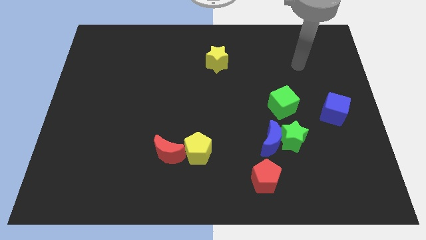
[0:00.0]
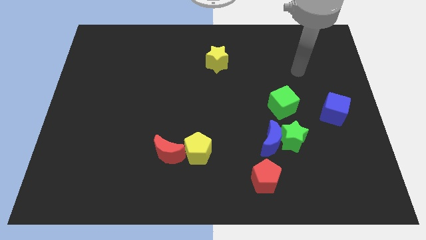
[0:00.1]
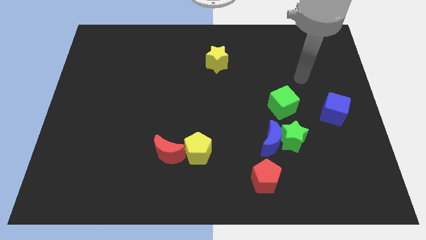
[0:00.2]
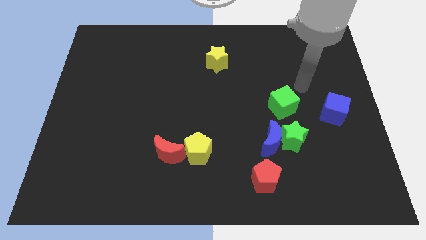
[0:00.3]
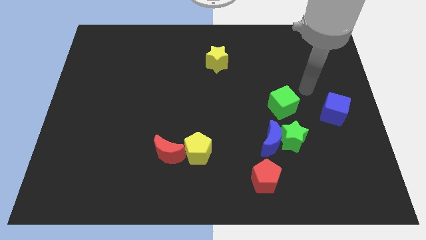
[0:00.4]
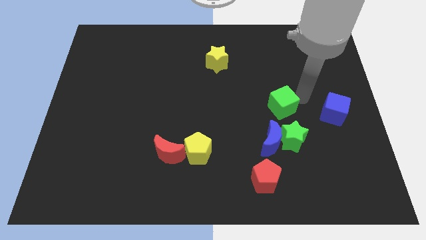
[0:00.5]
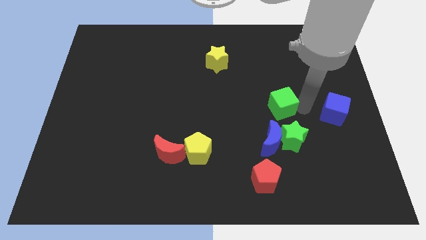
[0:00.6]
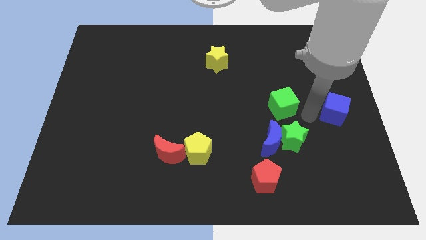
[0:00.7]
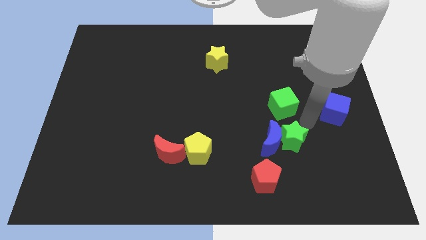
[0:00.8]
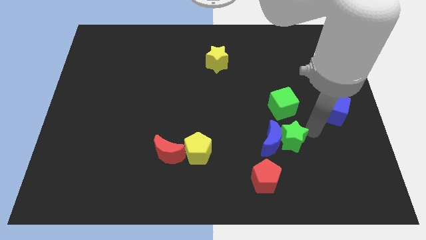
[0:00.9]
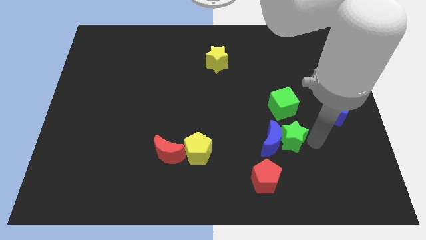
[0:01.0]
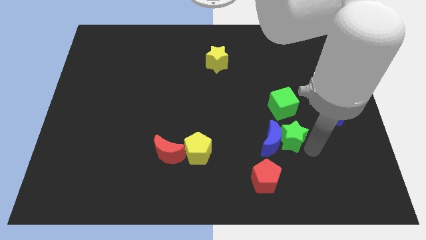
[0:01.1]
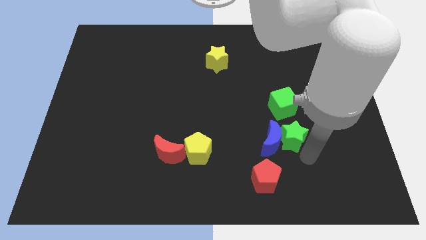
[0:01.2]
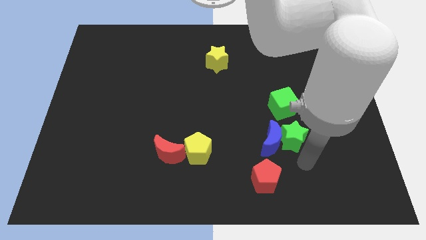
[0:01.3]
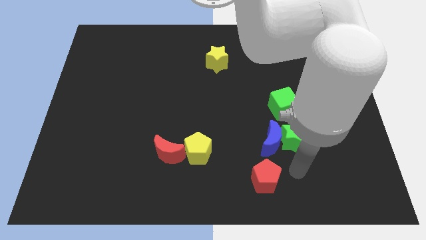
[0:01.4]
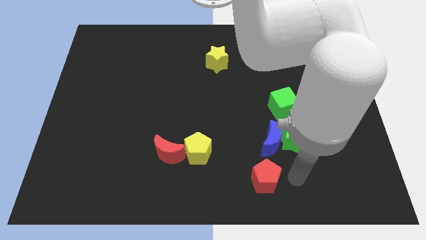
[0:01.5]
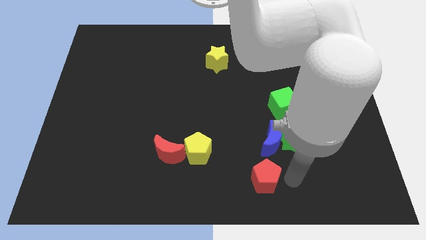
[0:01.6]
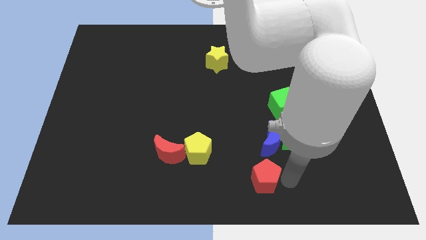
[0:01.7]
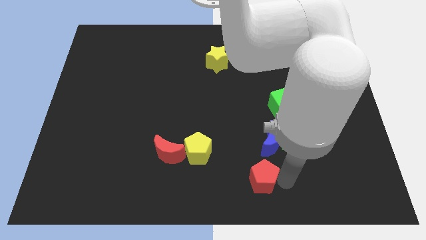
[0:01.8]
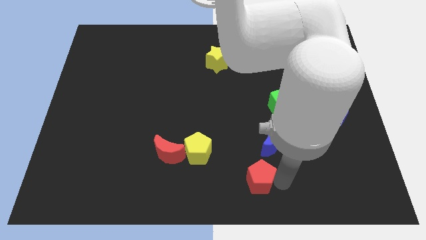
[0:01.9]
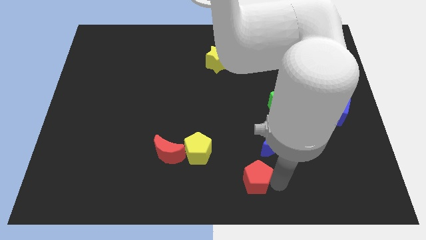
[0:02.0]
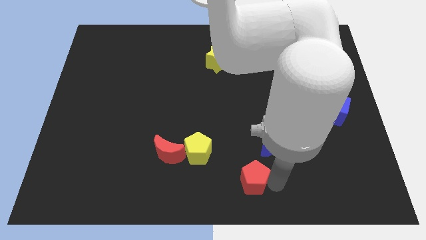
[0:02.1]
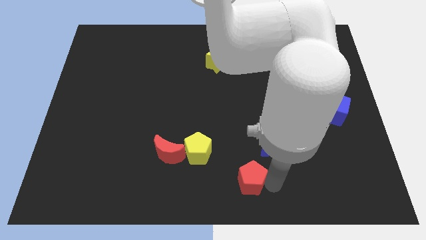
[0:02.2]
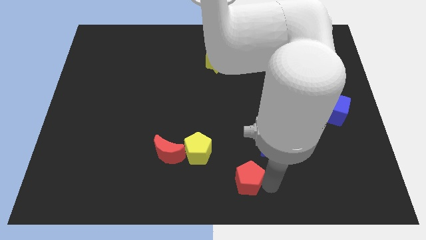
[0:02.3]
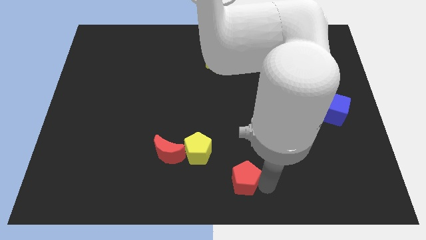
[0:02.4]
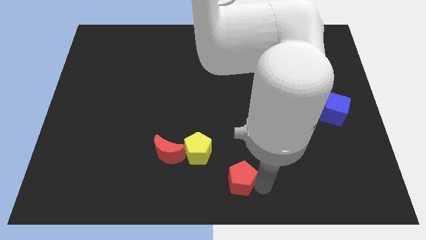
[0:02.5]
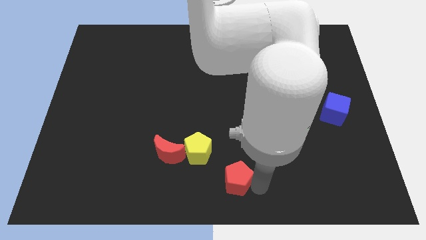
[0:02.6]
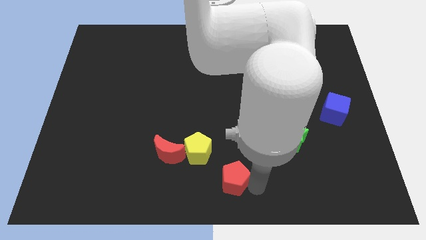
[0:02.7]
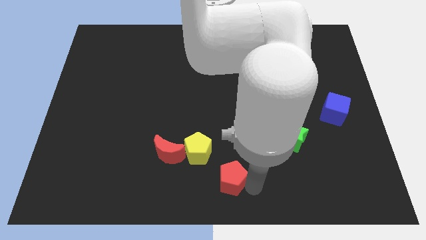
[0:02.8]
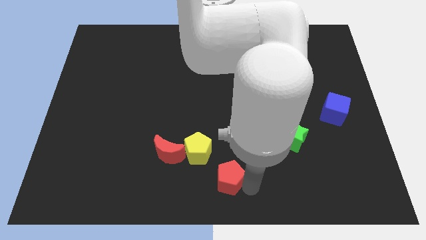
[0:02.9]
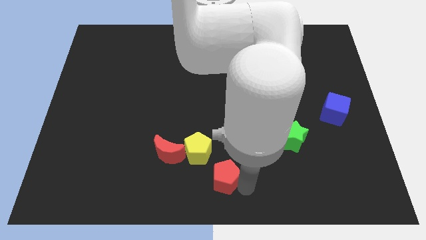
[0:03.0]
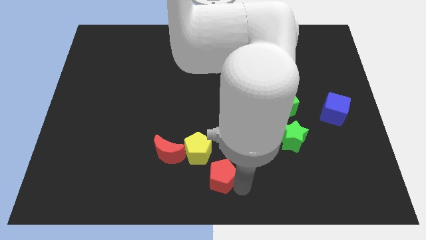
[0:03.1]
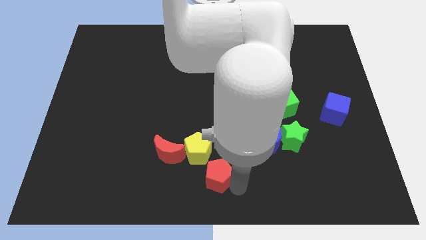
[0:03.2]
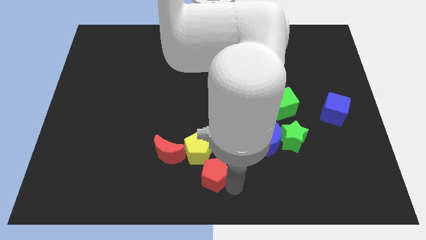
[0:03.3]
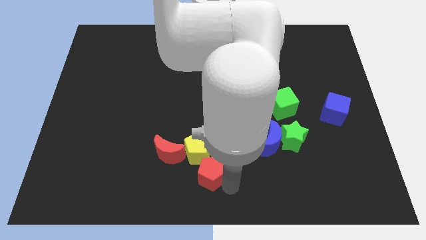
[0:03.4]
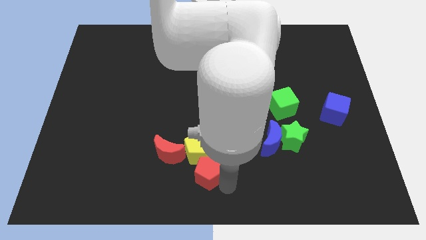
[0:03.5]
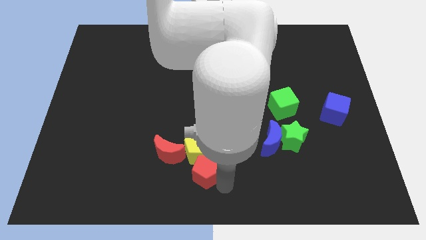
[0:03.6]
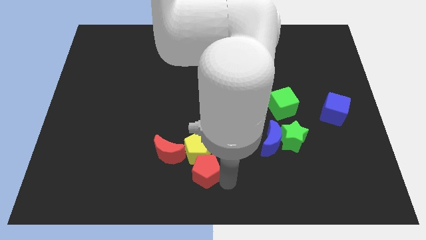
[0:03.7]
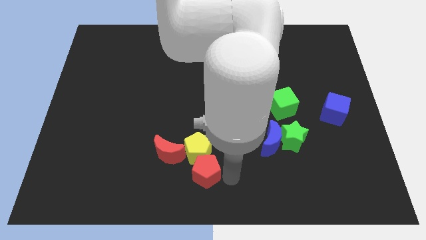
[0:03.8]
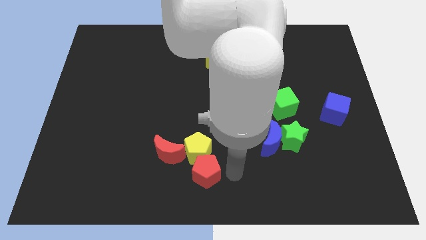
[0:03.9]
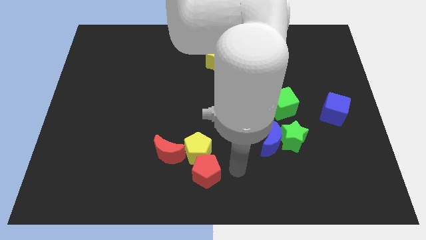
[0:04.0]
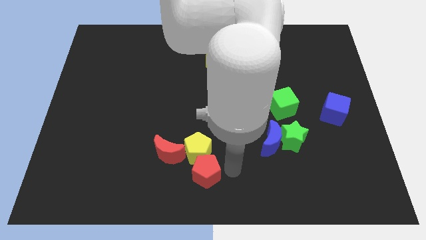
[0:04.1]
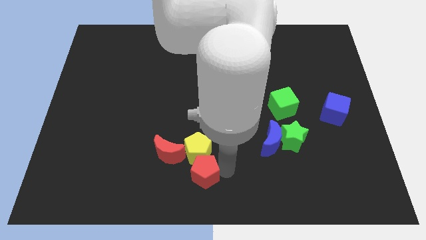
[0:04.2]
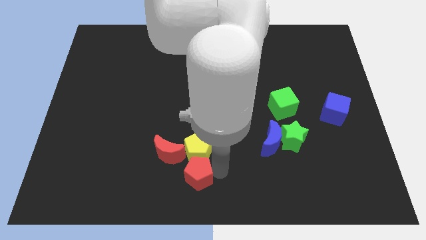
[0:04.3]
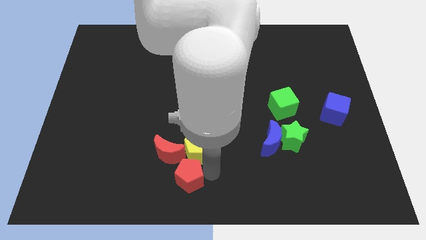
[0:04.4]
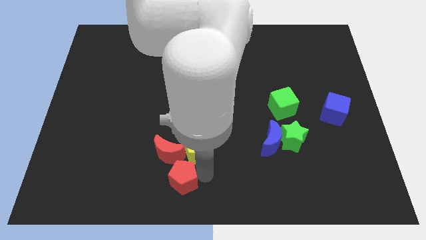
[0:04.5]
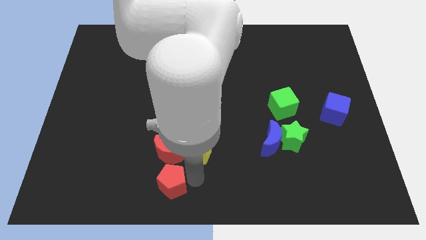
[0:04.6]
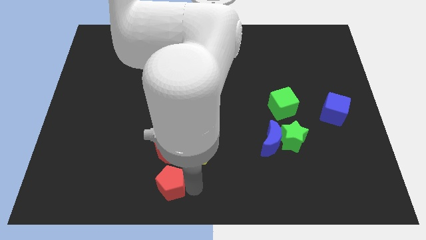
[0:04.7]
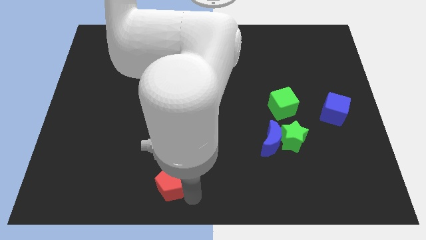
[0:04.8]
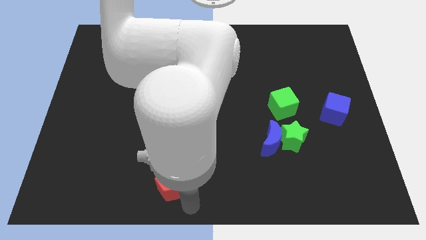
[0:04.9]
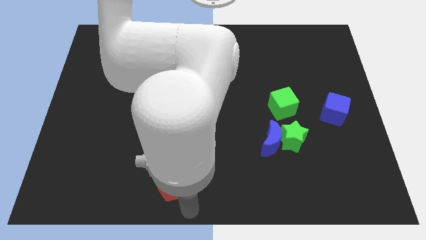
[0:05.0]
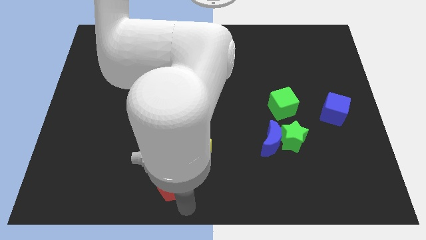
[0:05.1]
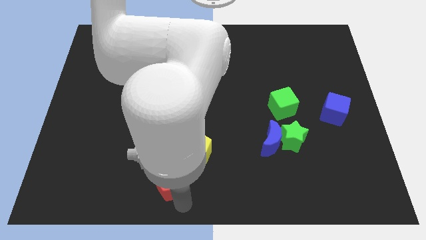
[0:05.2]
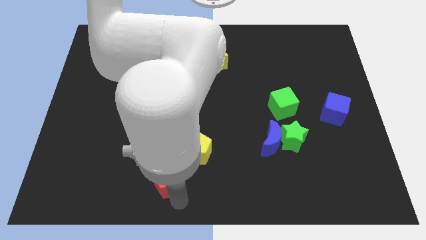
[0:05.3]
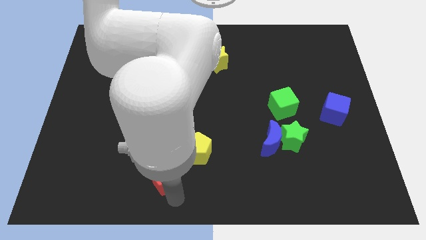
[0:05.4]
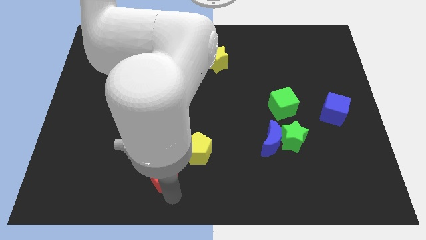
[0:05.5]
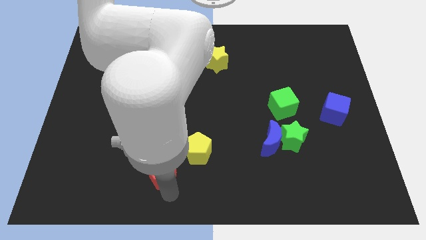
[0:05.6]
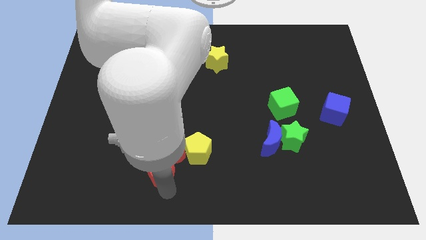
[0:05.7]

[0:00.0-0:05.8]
move the red pentagon to the left side of the yellow pentagon

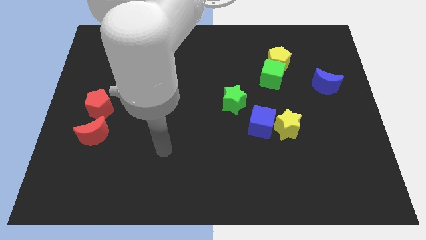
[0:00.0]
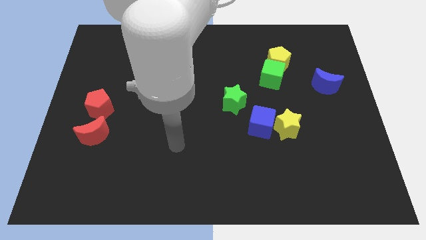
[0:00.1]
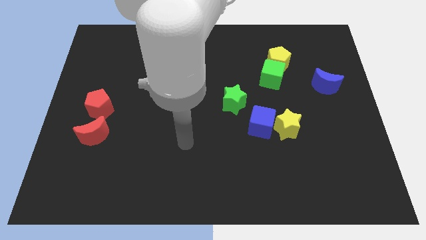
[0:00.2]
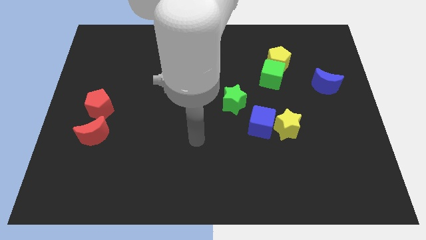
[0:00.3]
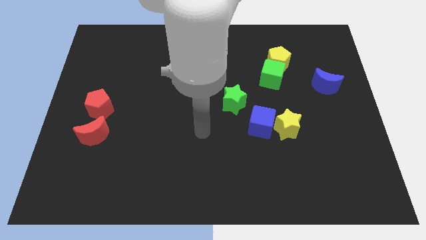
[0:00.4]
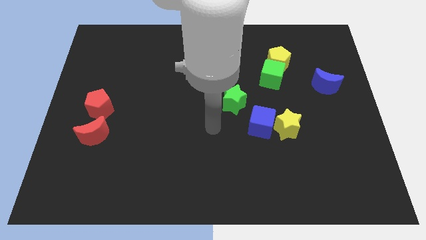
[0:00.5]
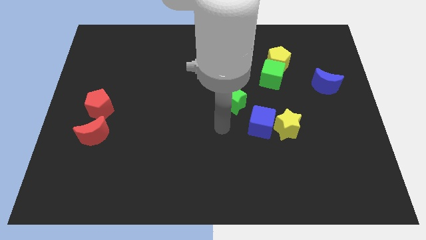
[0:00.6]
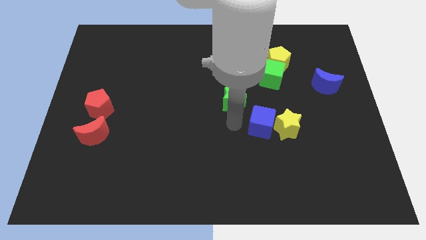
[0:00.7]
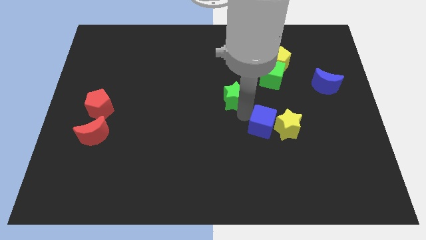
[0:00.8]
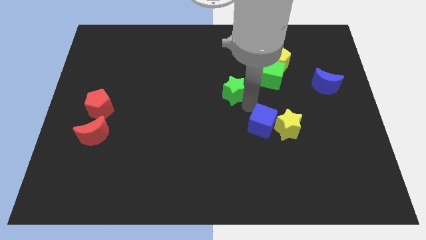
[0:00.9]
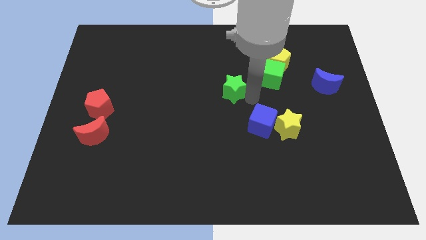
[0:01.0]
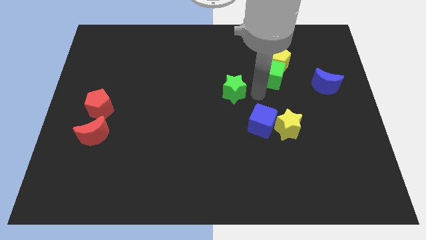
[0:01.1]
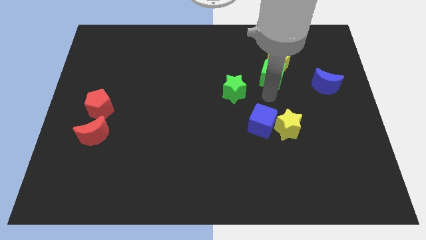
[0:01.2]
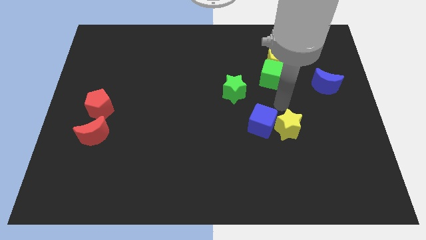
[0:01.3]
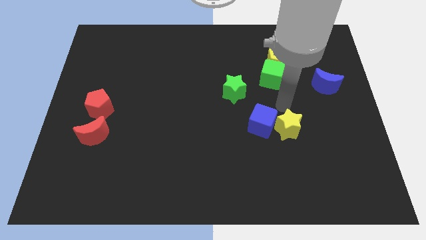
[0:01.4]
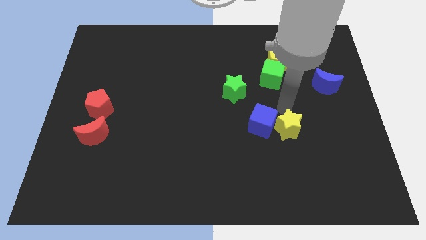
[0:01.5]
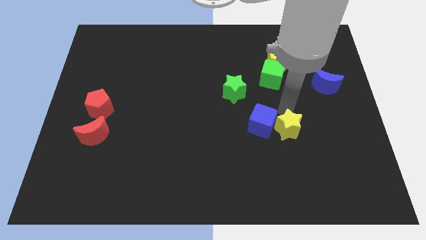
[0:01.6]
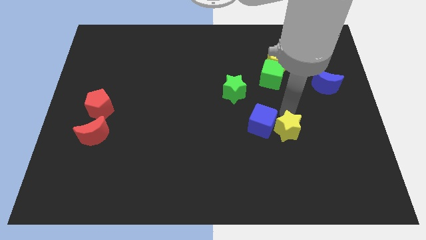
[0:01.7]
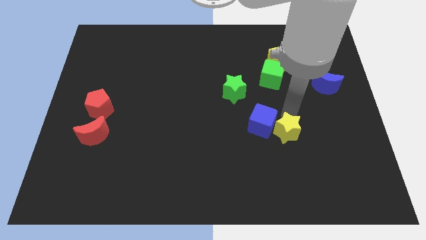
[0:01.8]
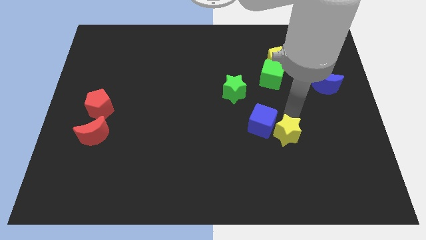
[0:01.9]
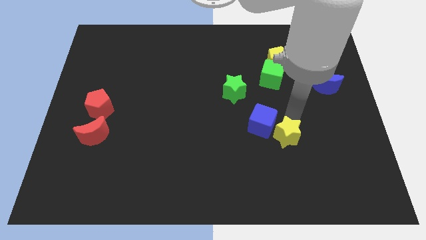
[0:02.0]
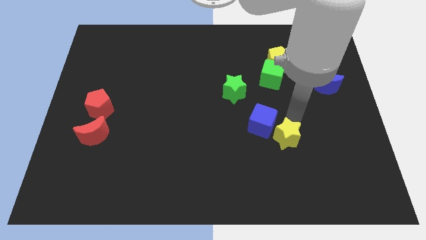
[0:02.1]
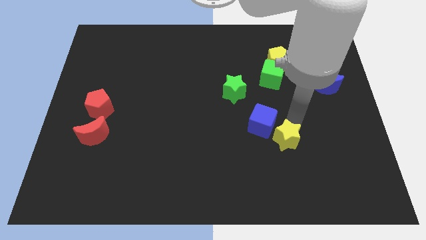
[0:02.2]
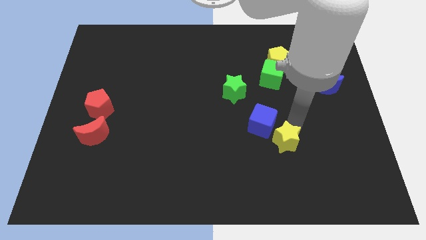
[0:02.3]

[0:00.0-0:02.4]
put the yellow star below the blue cube
